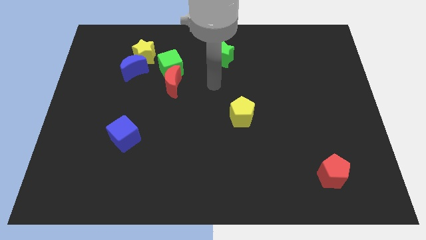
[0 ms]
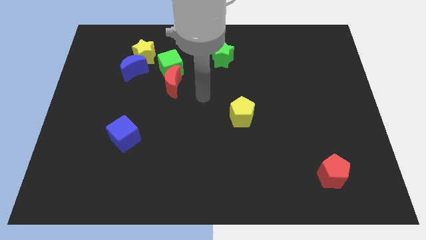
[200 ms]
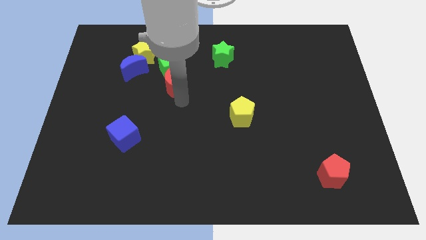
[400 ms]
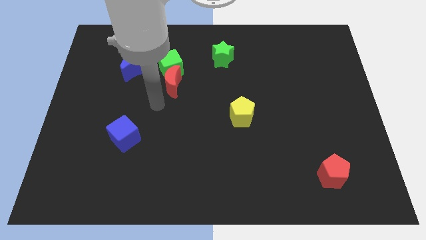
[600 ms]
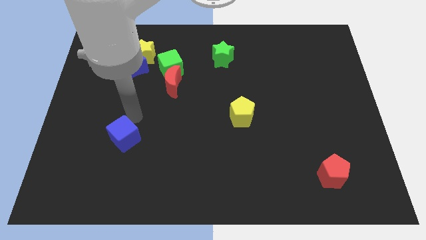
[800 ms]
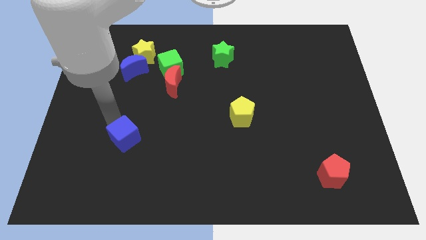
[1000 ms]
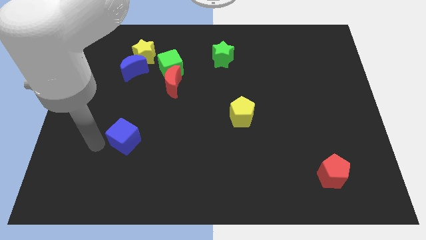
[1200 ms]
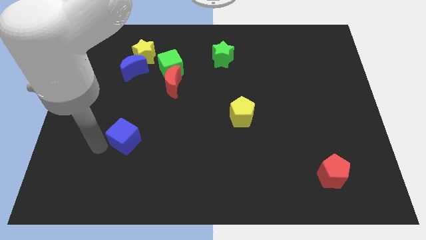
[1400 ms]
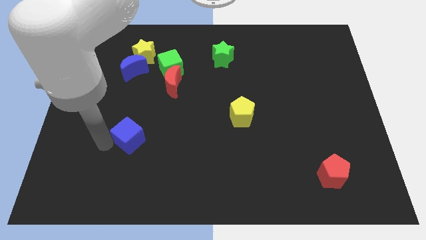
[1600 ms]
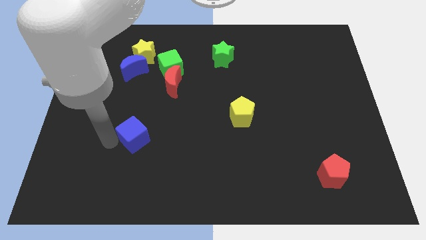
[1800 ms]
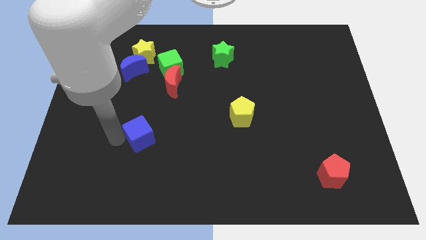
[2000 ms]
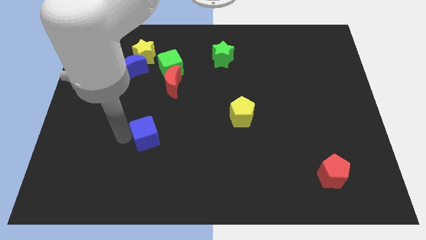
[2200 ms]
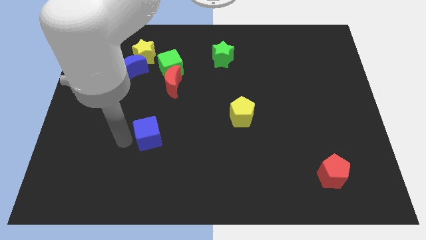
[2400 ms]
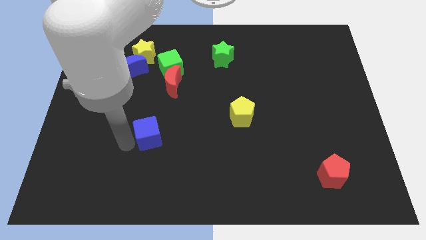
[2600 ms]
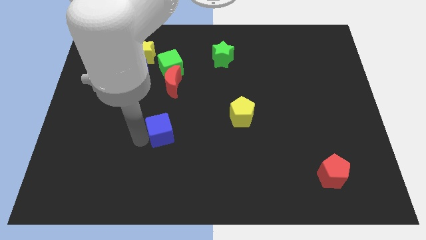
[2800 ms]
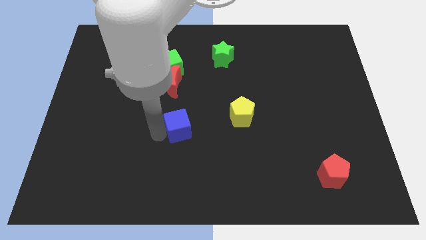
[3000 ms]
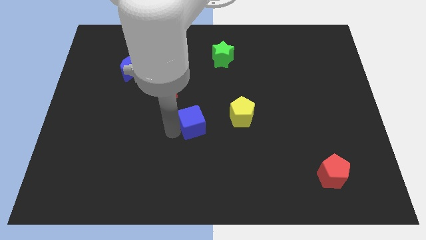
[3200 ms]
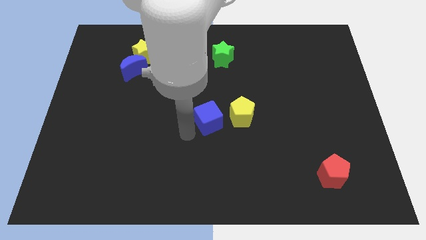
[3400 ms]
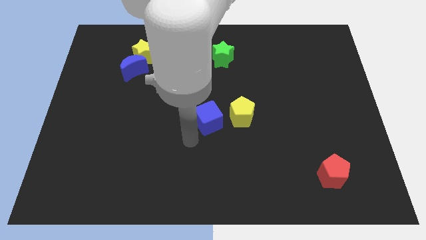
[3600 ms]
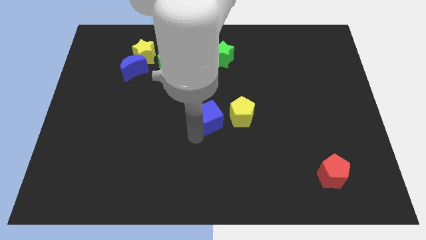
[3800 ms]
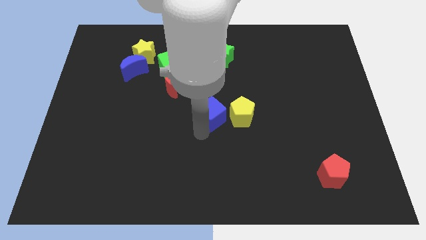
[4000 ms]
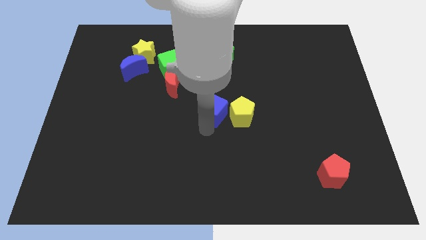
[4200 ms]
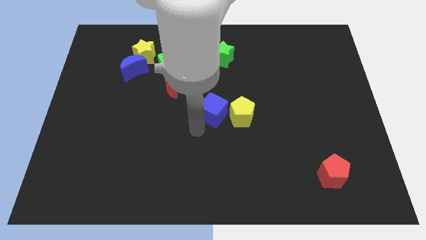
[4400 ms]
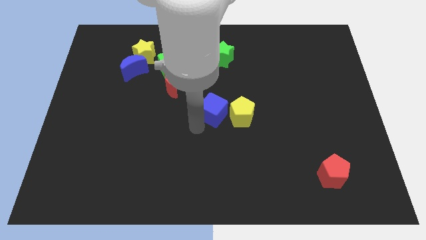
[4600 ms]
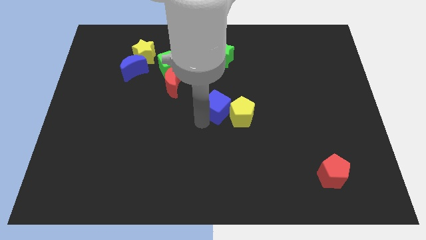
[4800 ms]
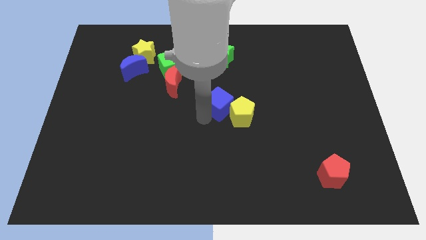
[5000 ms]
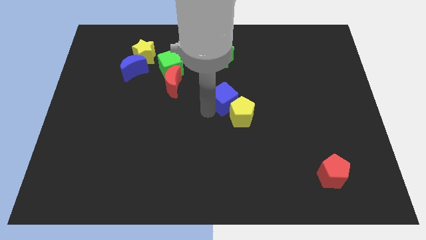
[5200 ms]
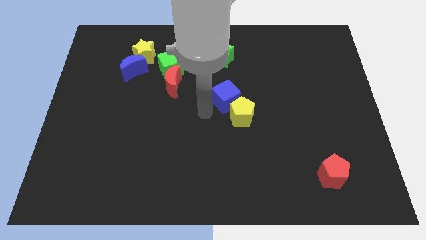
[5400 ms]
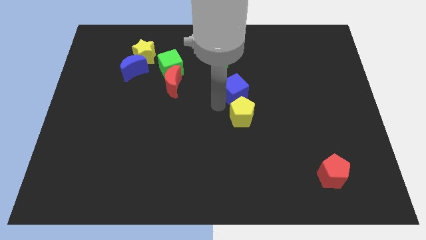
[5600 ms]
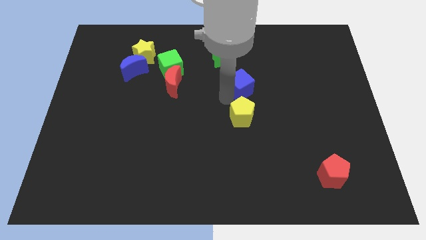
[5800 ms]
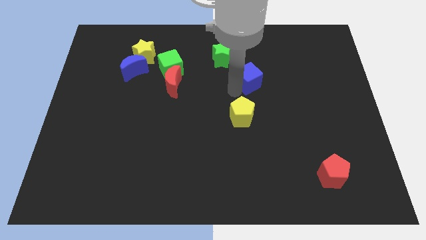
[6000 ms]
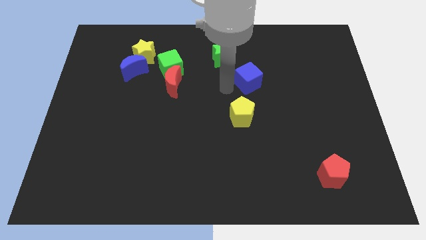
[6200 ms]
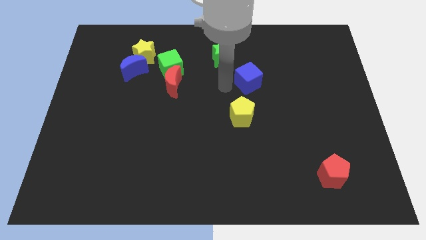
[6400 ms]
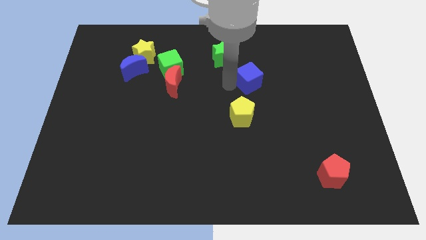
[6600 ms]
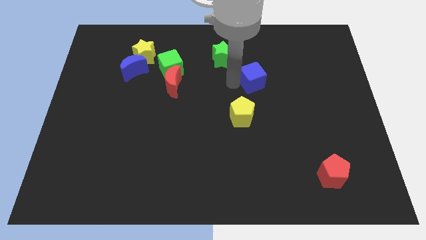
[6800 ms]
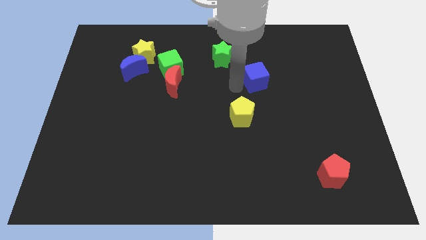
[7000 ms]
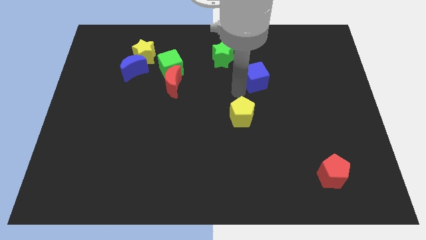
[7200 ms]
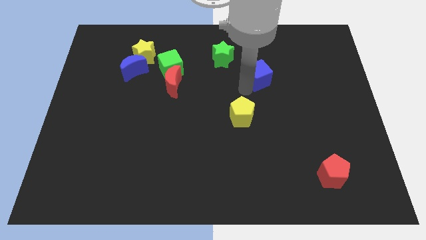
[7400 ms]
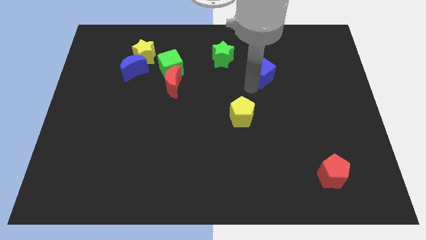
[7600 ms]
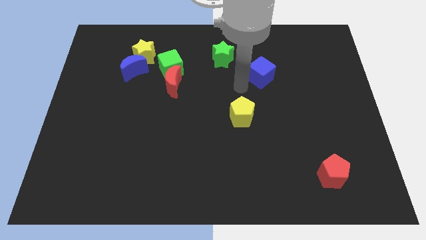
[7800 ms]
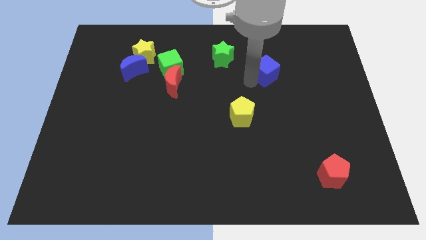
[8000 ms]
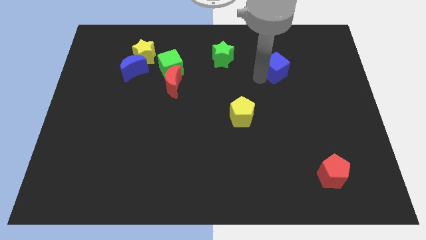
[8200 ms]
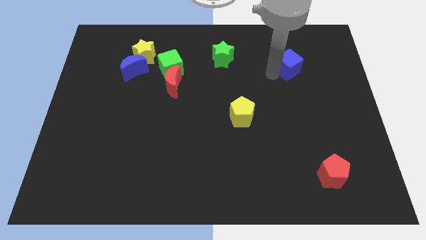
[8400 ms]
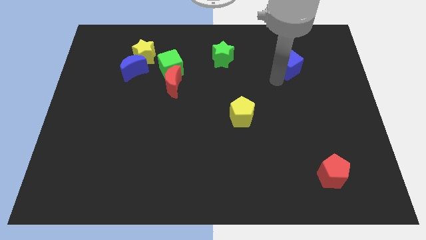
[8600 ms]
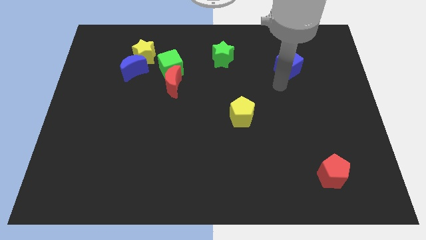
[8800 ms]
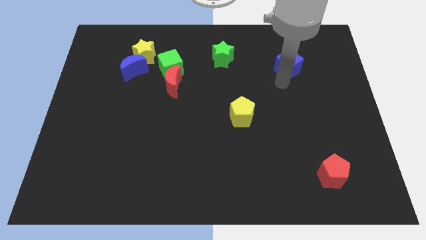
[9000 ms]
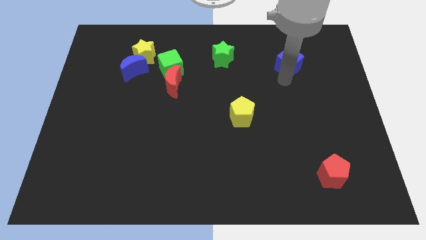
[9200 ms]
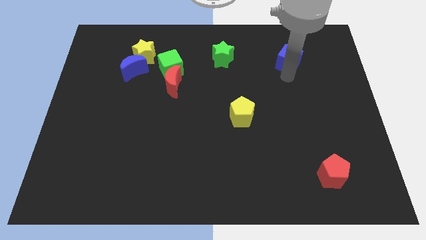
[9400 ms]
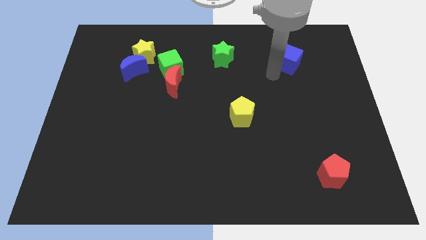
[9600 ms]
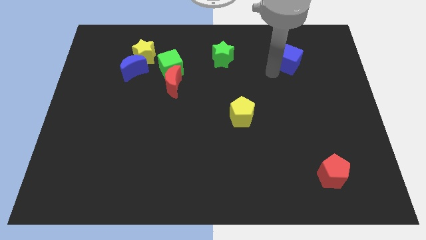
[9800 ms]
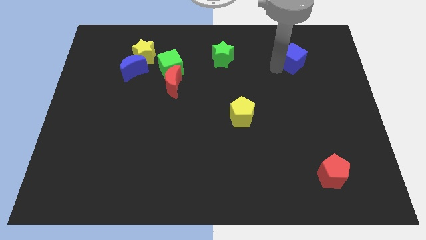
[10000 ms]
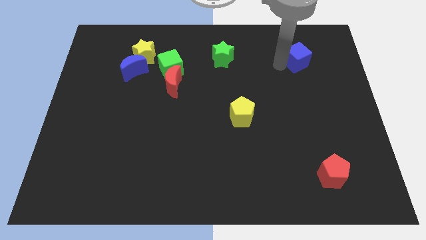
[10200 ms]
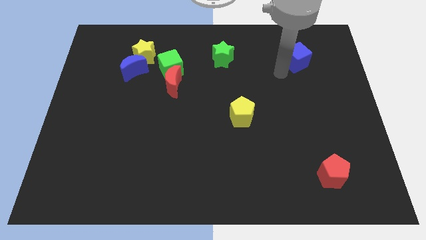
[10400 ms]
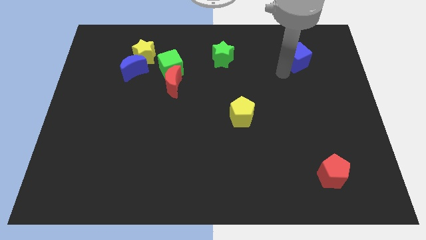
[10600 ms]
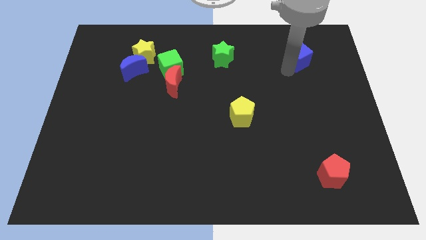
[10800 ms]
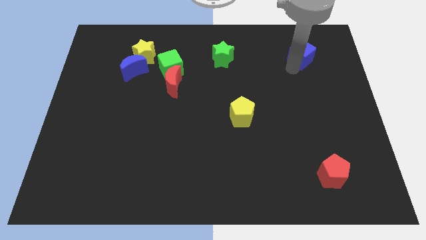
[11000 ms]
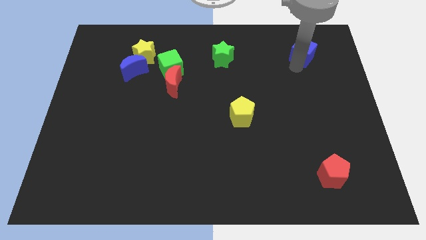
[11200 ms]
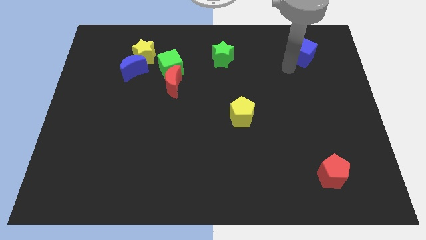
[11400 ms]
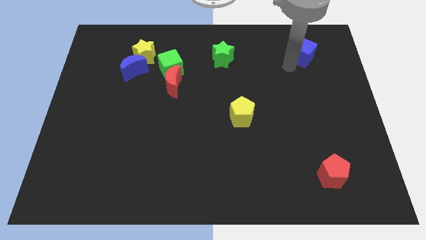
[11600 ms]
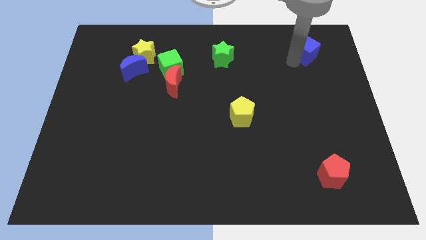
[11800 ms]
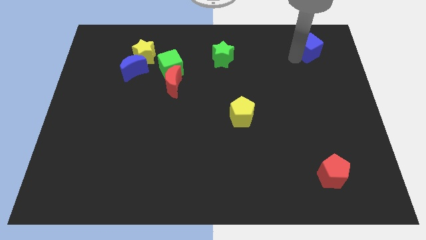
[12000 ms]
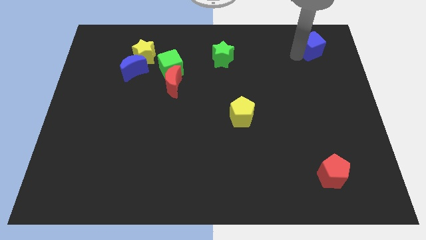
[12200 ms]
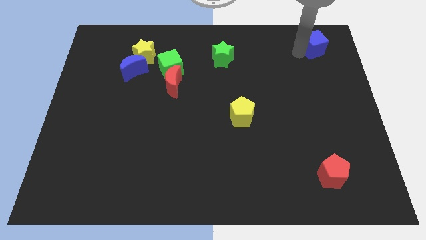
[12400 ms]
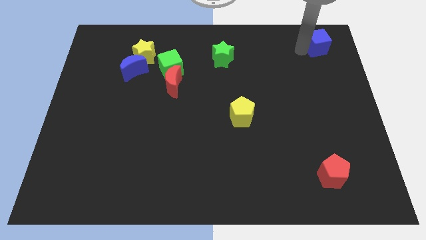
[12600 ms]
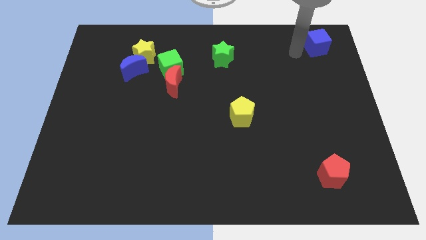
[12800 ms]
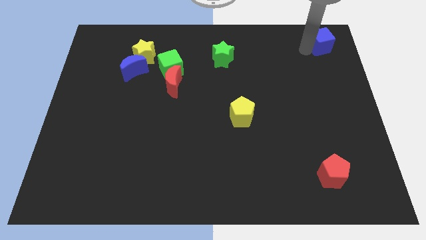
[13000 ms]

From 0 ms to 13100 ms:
push the blue cube to the top right of the board
